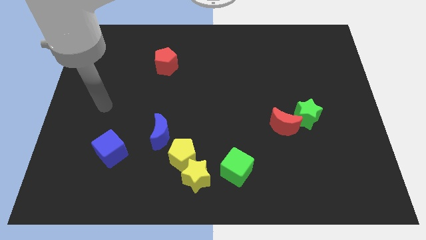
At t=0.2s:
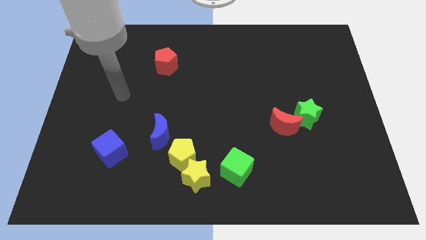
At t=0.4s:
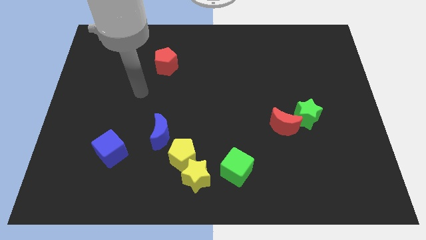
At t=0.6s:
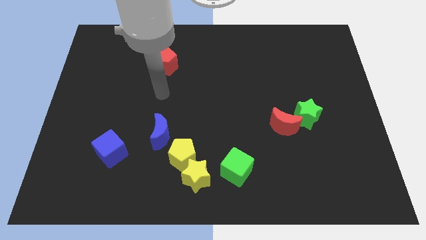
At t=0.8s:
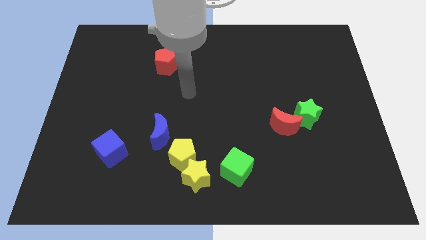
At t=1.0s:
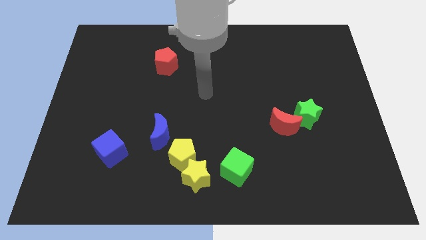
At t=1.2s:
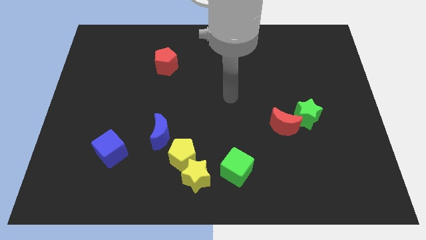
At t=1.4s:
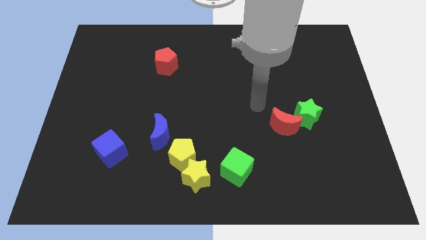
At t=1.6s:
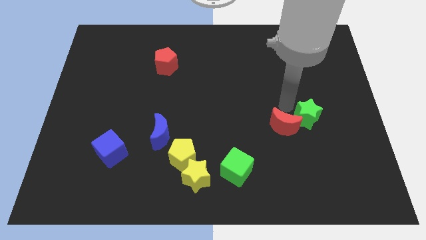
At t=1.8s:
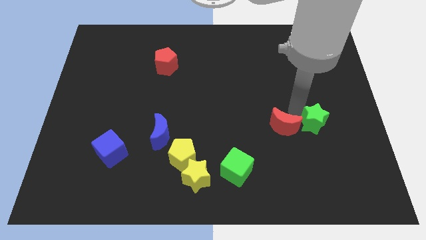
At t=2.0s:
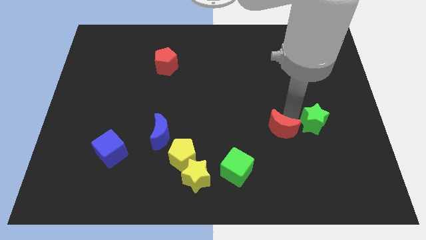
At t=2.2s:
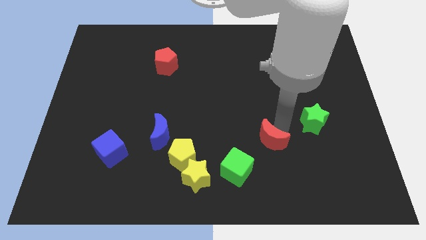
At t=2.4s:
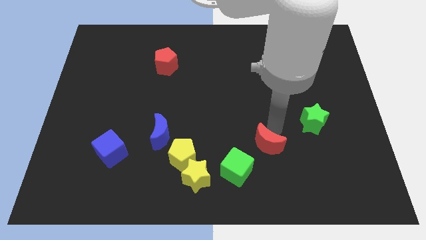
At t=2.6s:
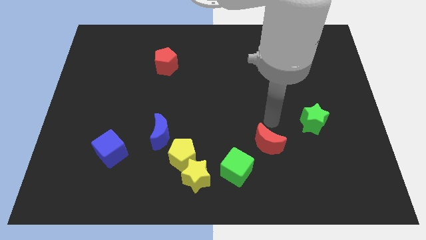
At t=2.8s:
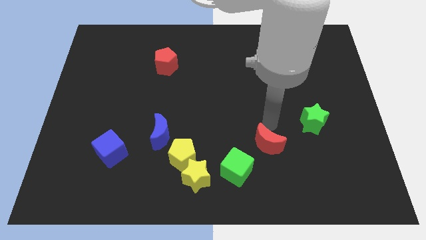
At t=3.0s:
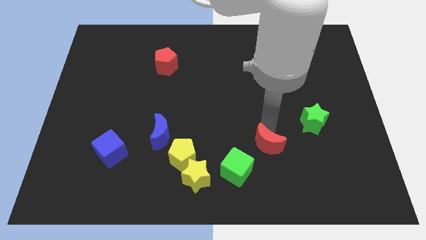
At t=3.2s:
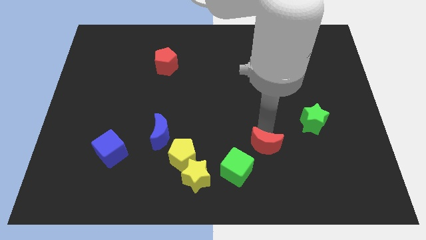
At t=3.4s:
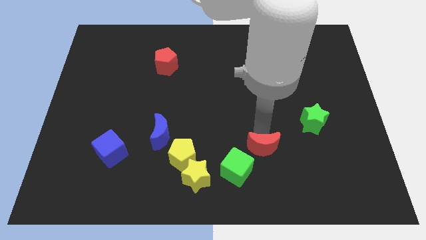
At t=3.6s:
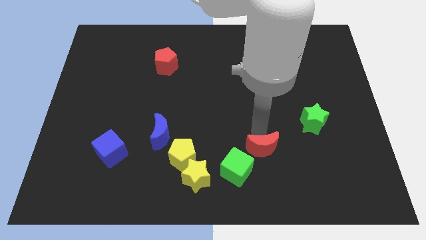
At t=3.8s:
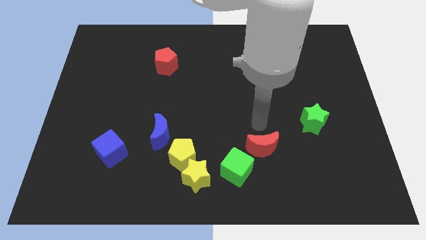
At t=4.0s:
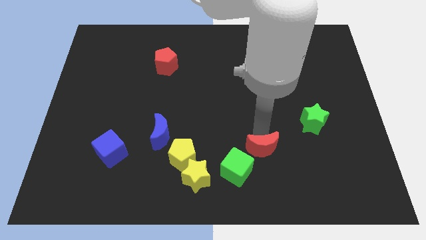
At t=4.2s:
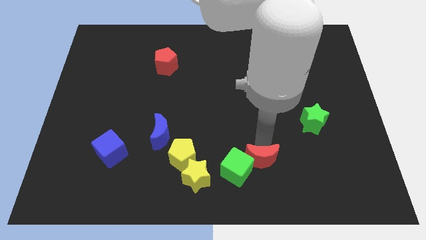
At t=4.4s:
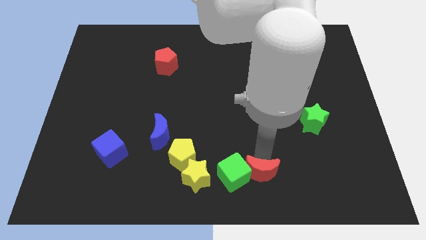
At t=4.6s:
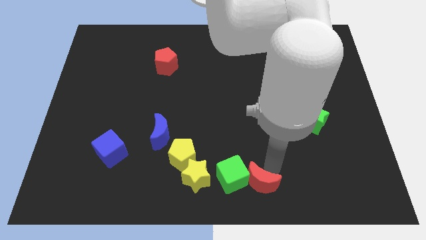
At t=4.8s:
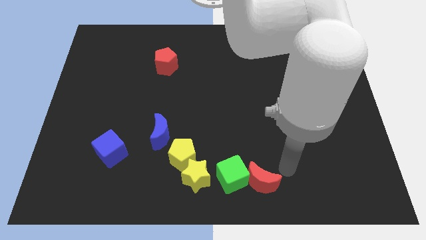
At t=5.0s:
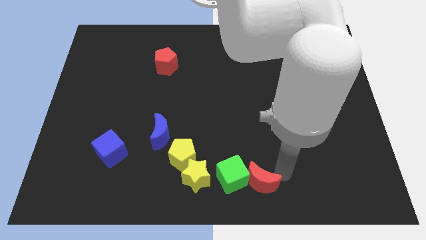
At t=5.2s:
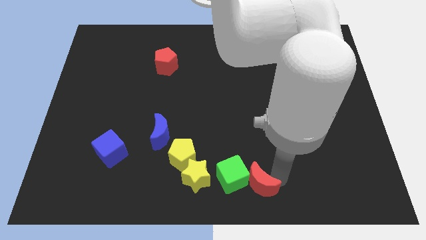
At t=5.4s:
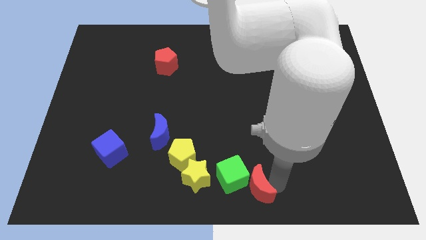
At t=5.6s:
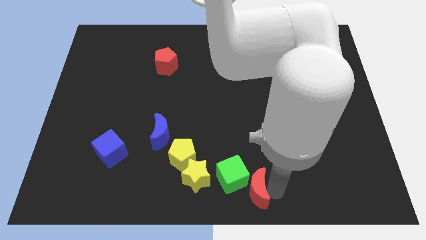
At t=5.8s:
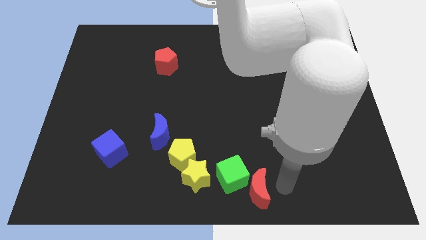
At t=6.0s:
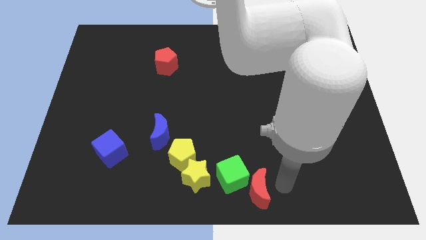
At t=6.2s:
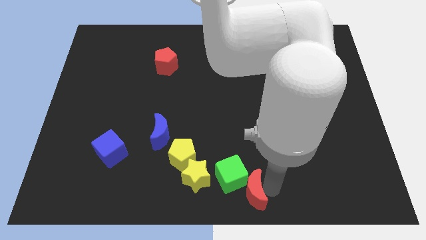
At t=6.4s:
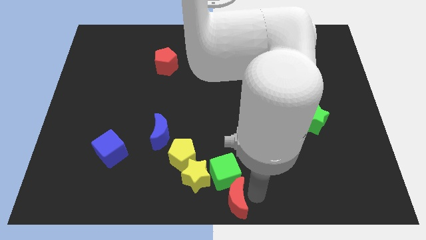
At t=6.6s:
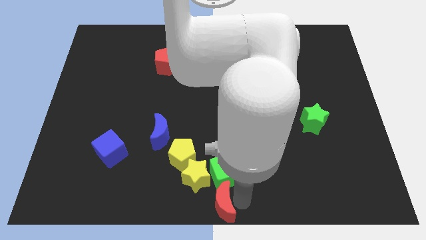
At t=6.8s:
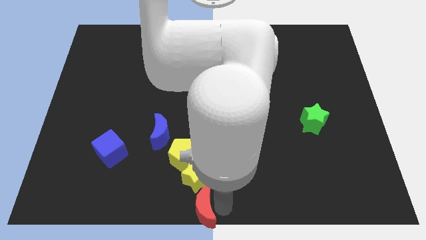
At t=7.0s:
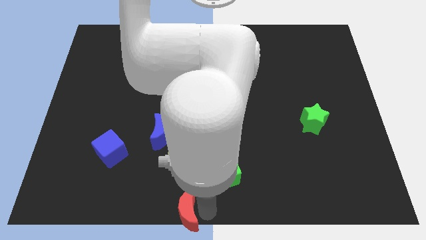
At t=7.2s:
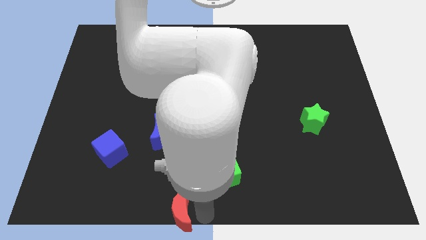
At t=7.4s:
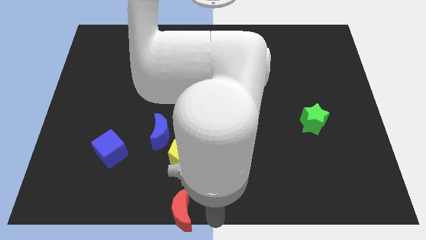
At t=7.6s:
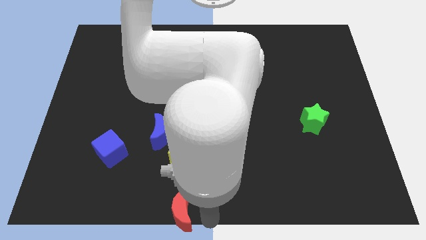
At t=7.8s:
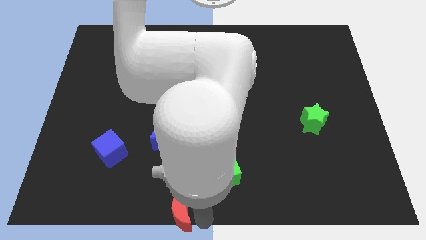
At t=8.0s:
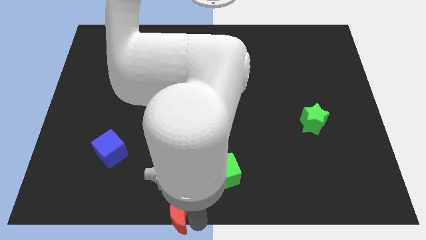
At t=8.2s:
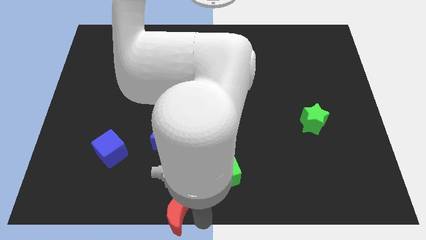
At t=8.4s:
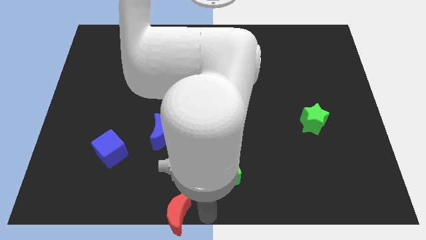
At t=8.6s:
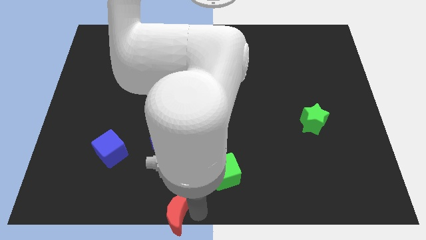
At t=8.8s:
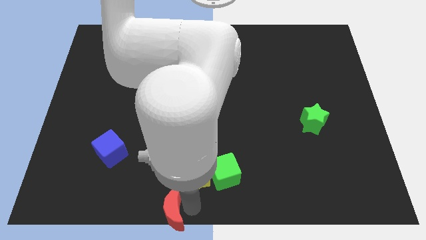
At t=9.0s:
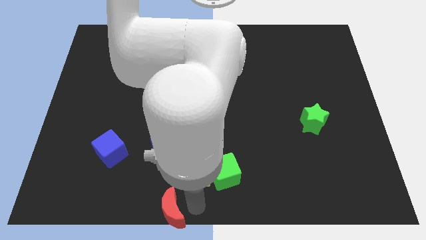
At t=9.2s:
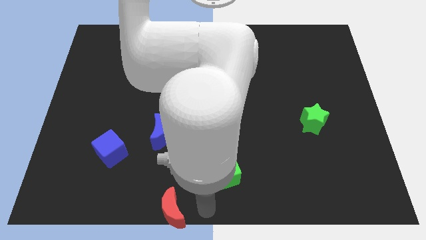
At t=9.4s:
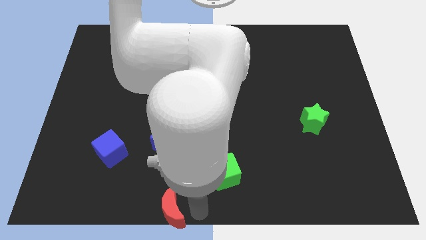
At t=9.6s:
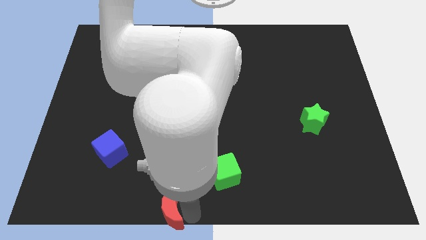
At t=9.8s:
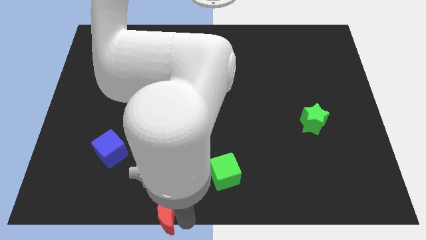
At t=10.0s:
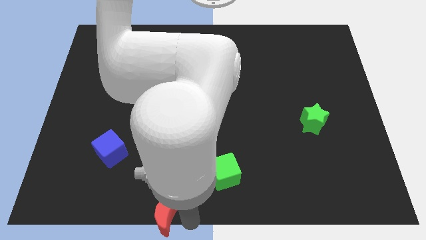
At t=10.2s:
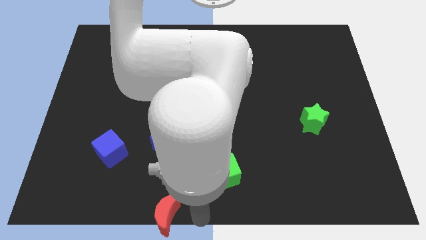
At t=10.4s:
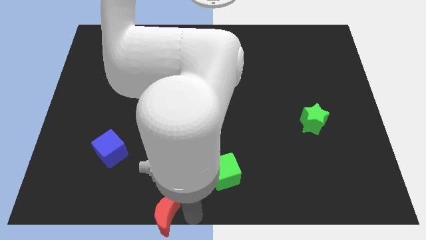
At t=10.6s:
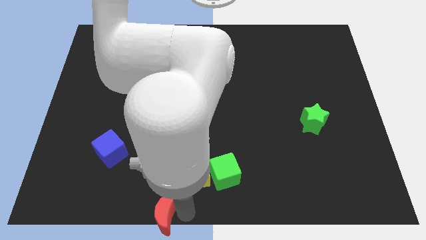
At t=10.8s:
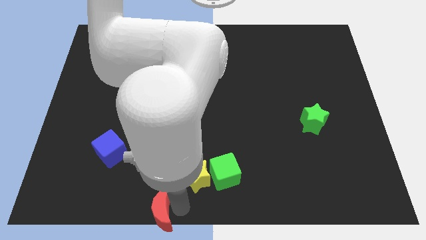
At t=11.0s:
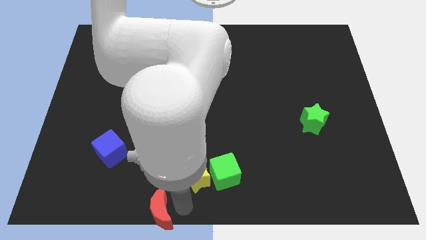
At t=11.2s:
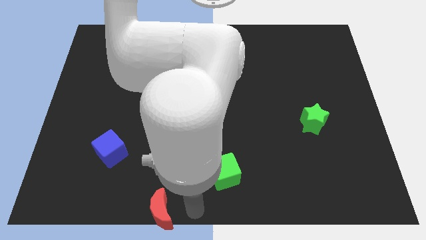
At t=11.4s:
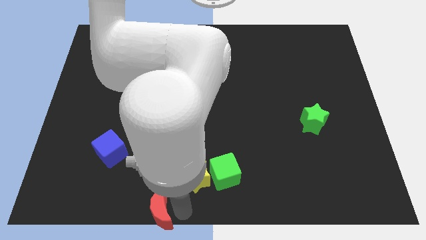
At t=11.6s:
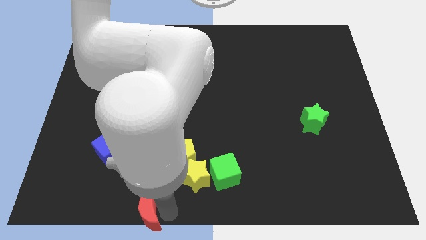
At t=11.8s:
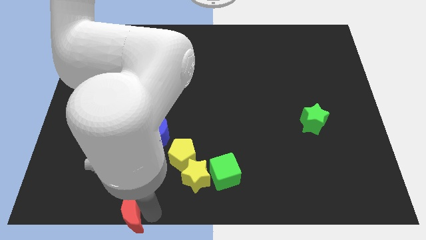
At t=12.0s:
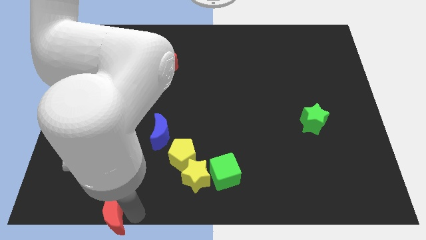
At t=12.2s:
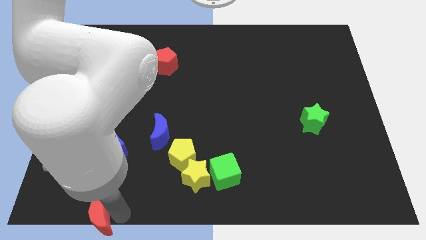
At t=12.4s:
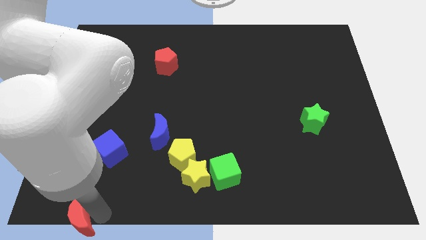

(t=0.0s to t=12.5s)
push the red moon to the lower left corner
